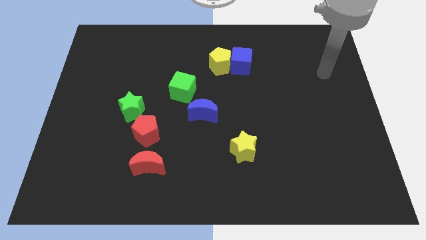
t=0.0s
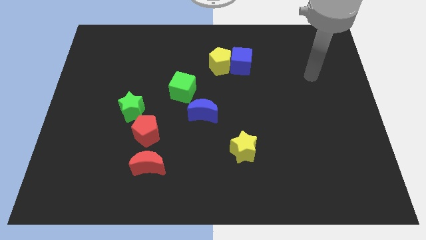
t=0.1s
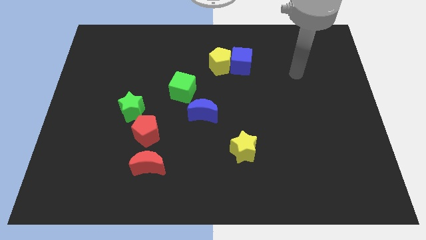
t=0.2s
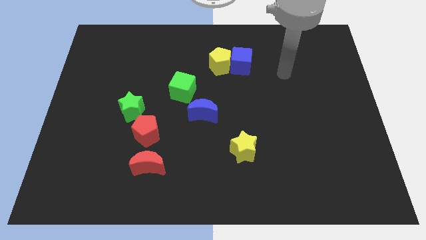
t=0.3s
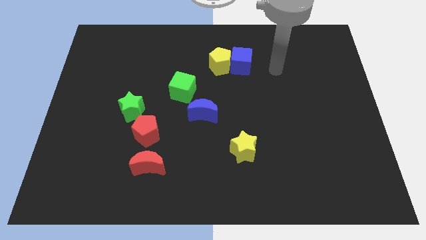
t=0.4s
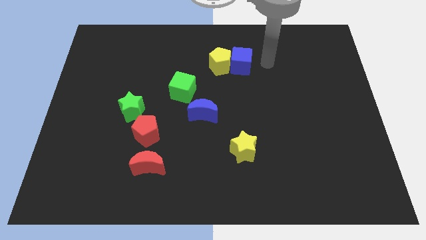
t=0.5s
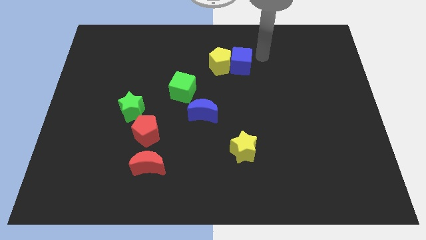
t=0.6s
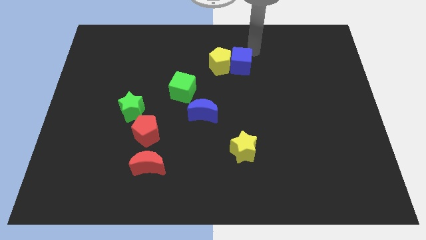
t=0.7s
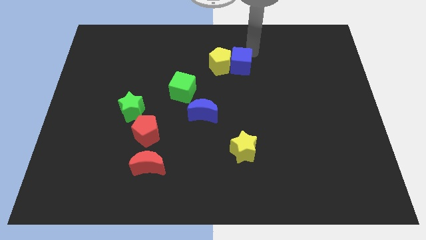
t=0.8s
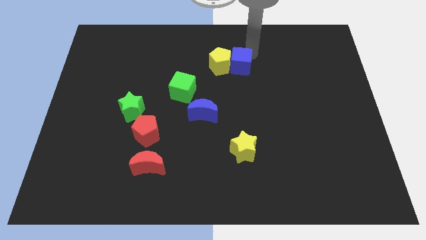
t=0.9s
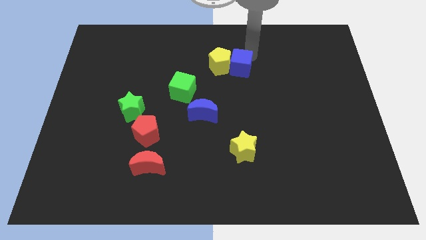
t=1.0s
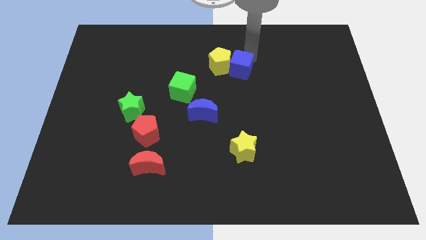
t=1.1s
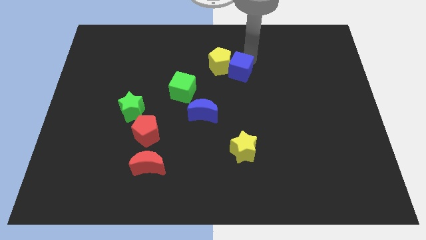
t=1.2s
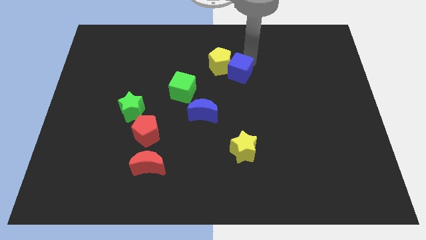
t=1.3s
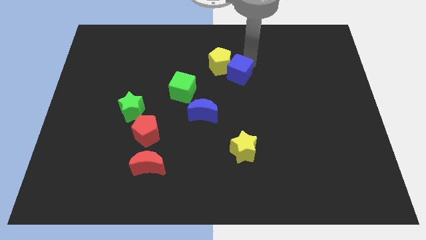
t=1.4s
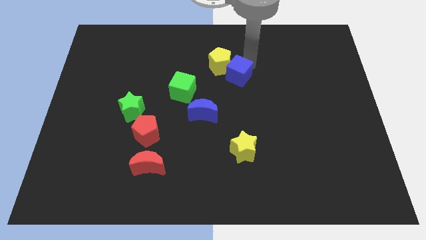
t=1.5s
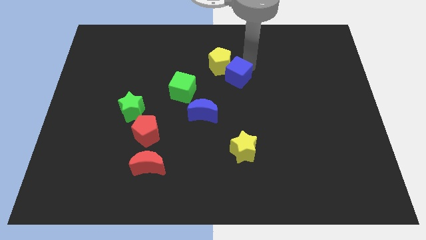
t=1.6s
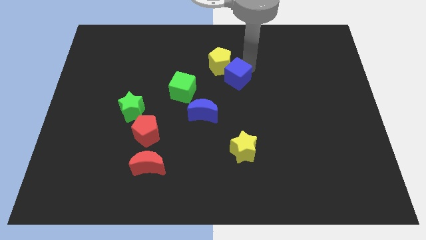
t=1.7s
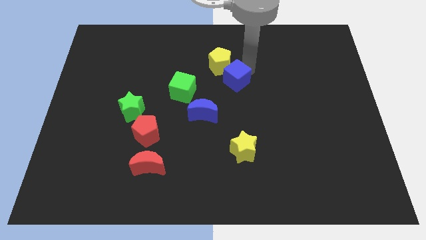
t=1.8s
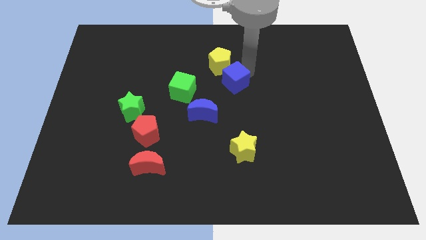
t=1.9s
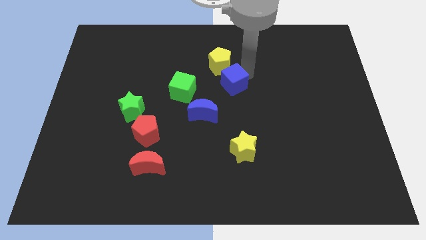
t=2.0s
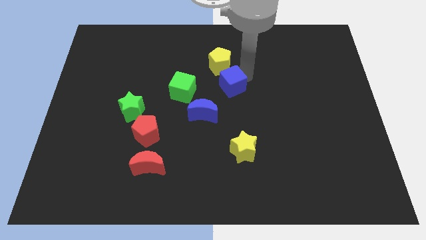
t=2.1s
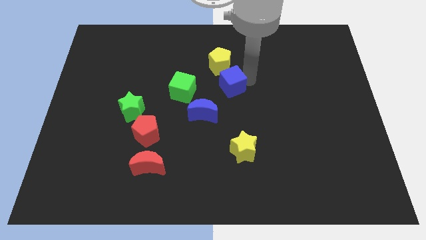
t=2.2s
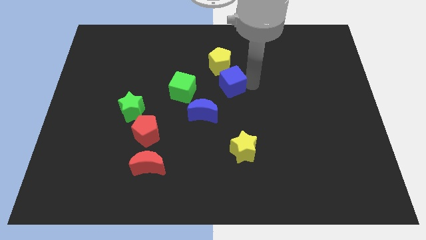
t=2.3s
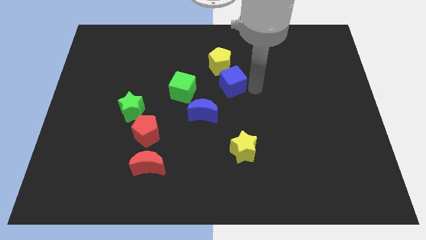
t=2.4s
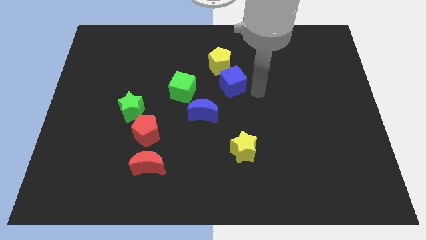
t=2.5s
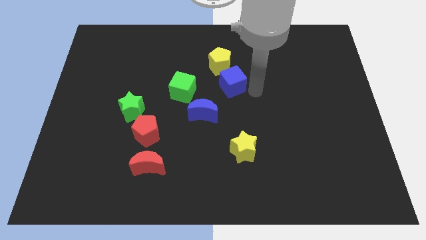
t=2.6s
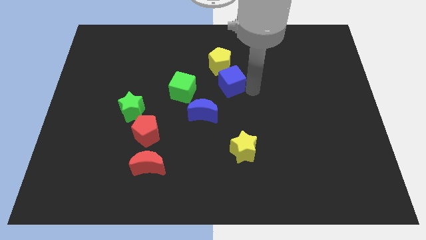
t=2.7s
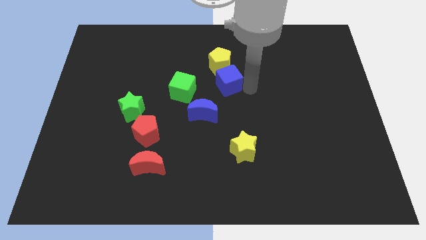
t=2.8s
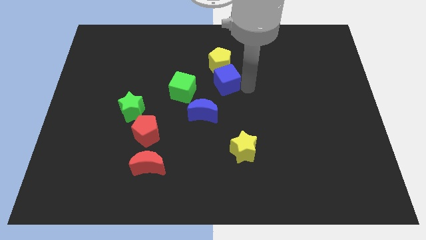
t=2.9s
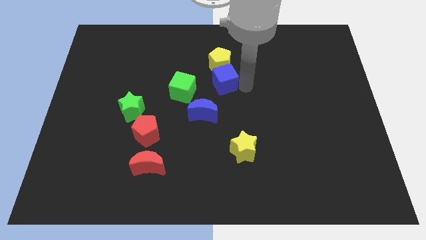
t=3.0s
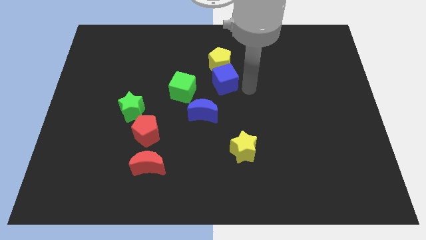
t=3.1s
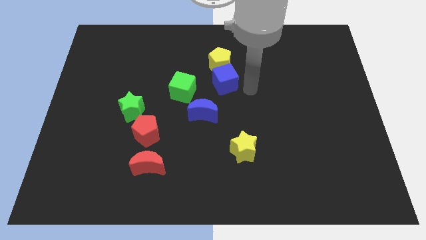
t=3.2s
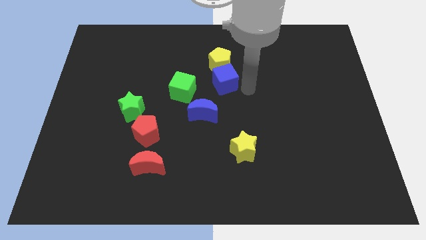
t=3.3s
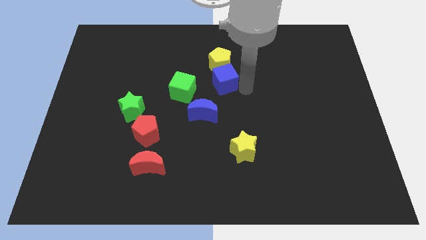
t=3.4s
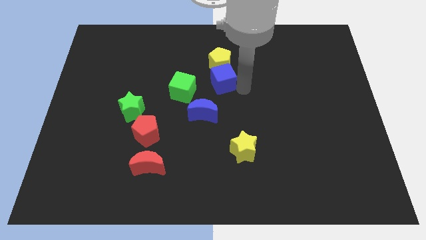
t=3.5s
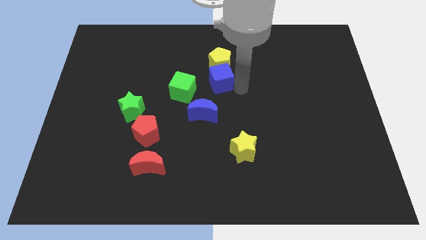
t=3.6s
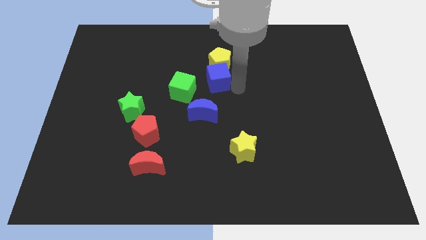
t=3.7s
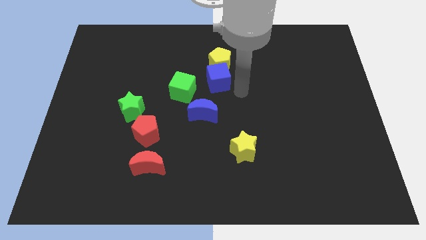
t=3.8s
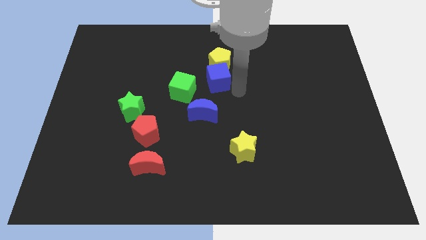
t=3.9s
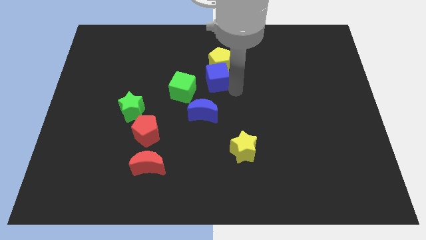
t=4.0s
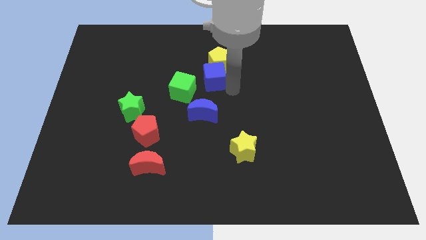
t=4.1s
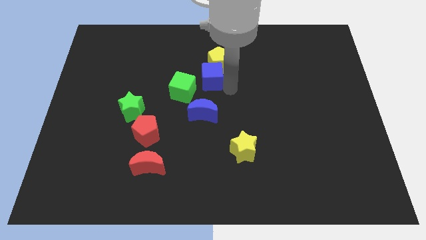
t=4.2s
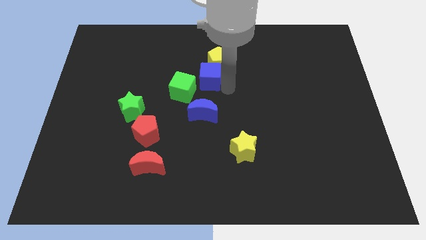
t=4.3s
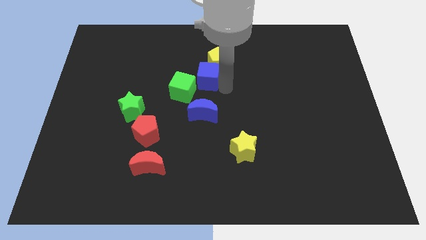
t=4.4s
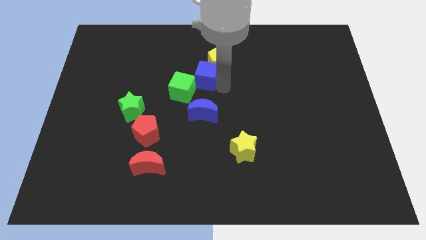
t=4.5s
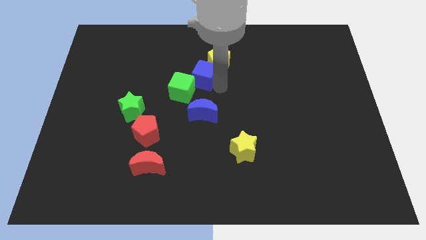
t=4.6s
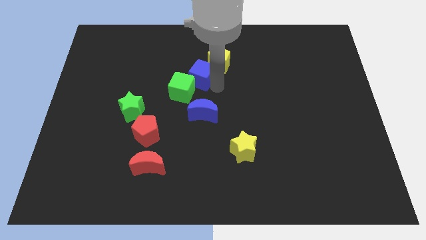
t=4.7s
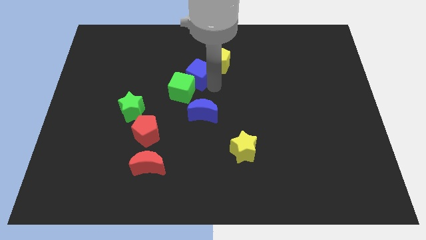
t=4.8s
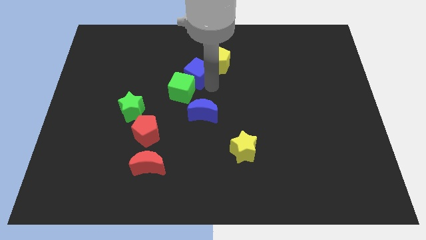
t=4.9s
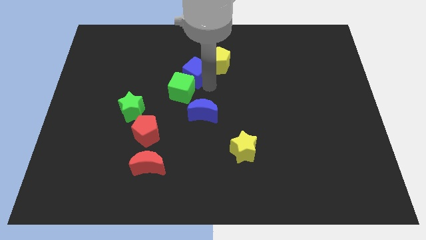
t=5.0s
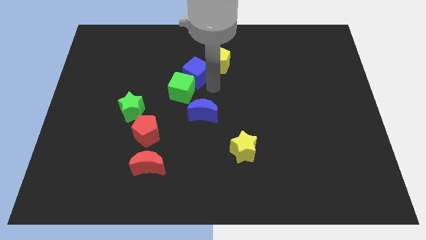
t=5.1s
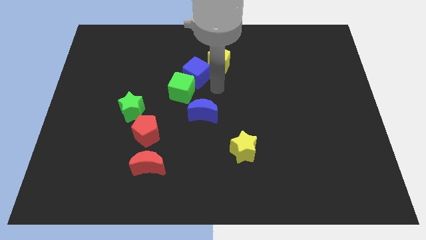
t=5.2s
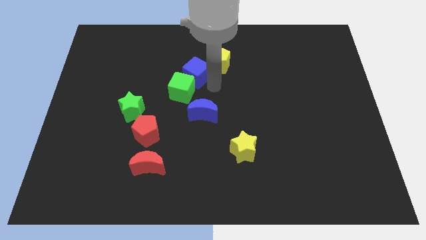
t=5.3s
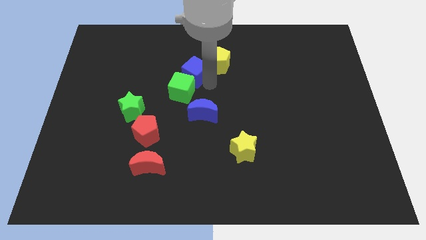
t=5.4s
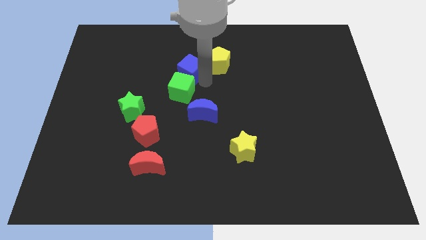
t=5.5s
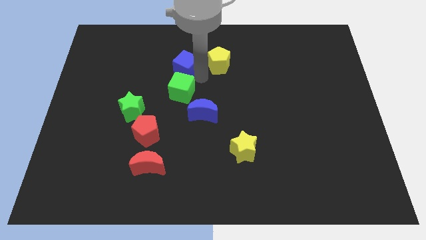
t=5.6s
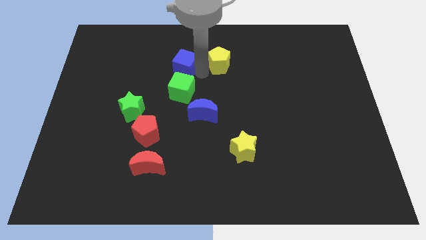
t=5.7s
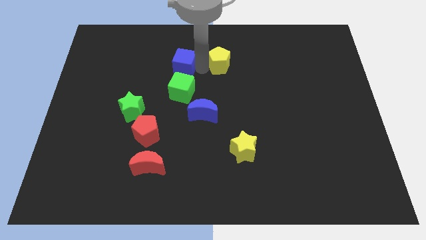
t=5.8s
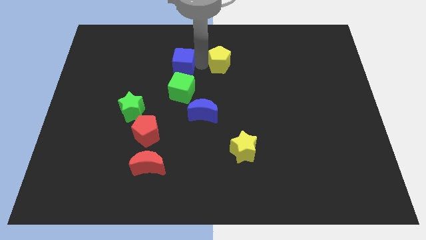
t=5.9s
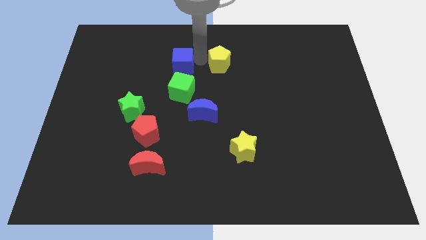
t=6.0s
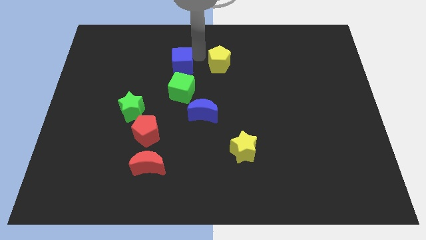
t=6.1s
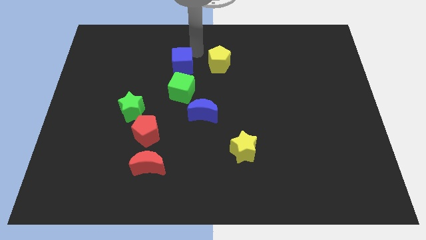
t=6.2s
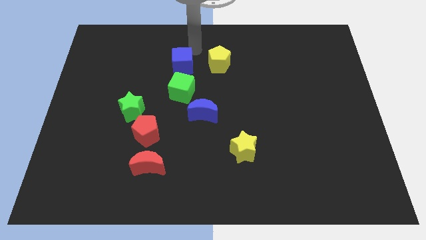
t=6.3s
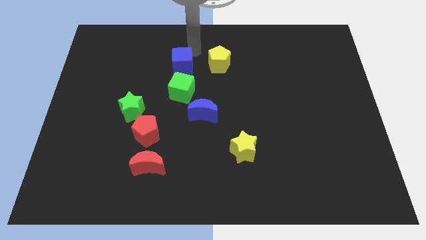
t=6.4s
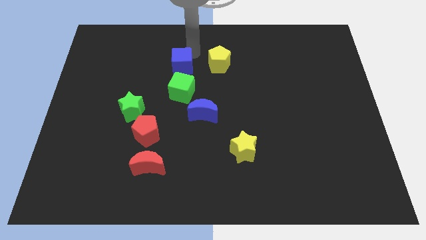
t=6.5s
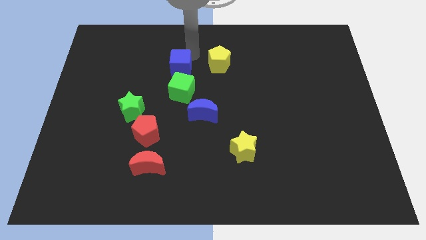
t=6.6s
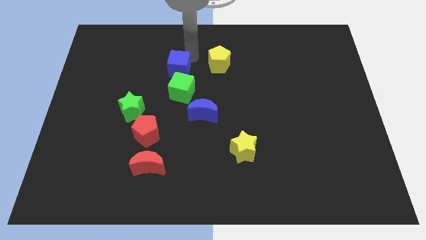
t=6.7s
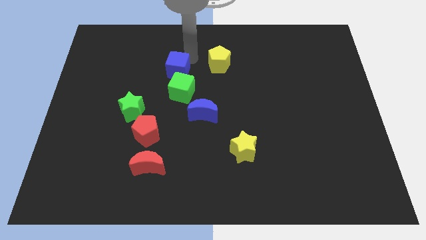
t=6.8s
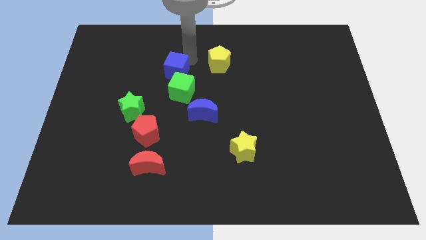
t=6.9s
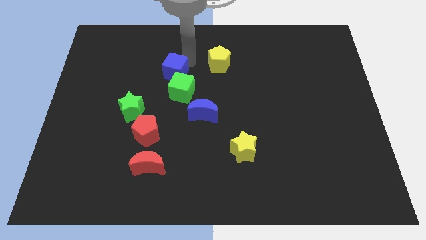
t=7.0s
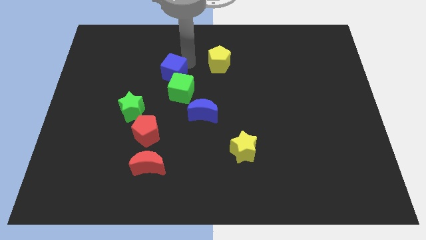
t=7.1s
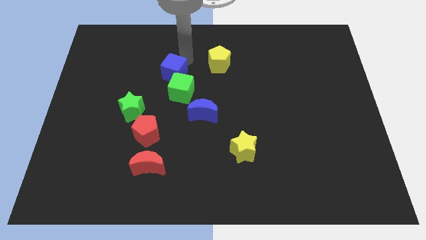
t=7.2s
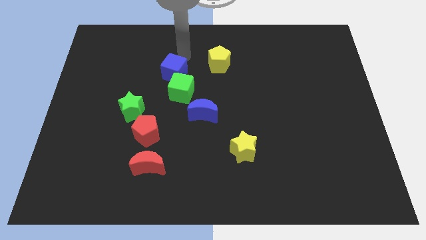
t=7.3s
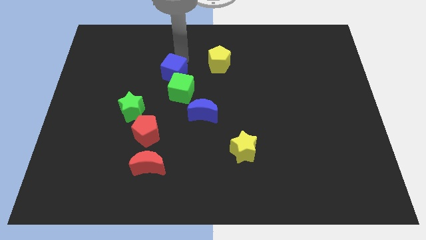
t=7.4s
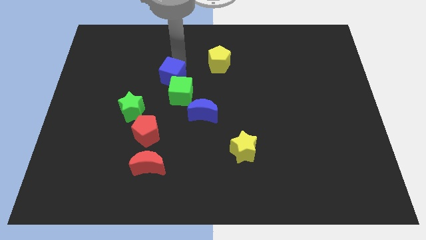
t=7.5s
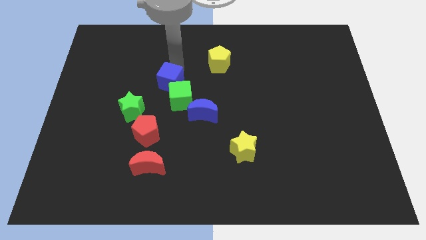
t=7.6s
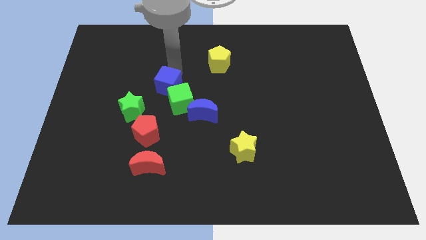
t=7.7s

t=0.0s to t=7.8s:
slide the blue cube to the top side of the red pentagon
